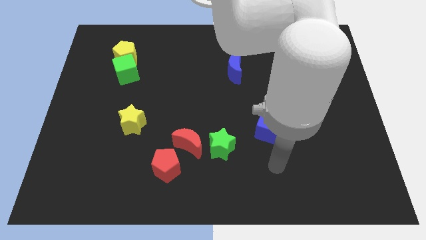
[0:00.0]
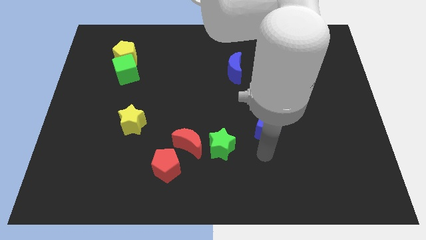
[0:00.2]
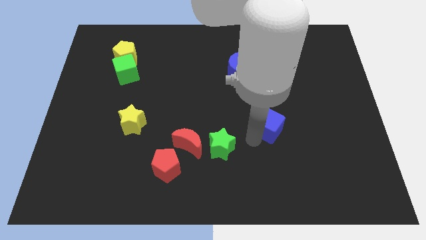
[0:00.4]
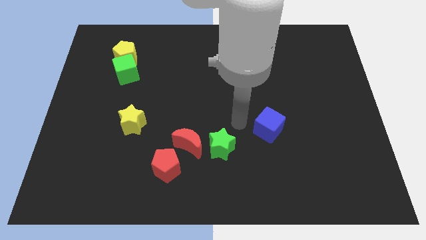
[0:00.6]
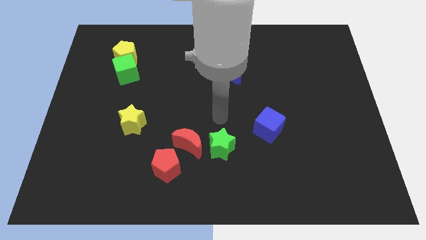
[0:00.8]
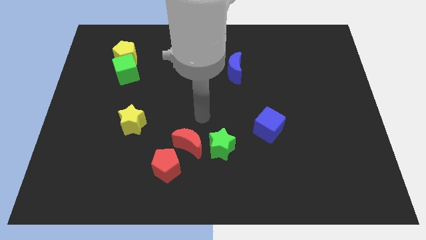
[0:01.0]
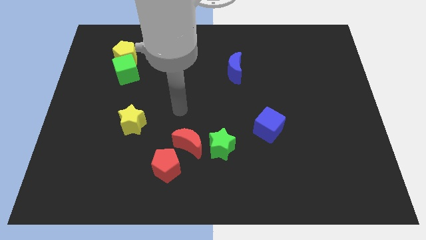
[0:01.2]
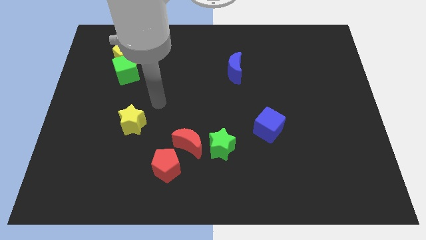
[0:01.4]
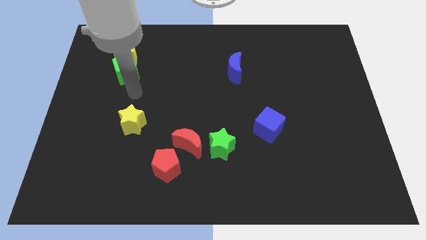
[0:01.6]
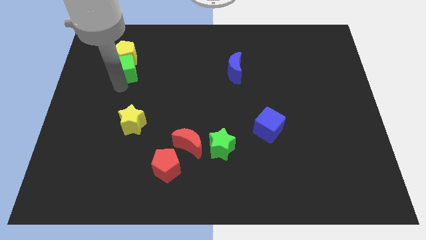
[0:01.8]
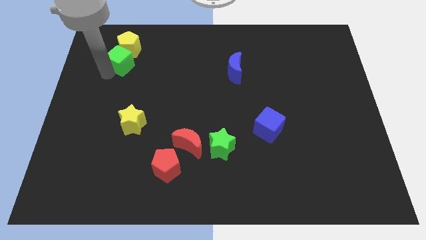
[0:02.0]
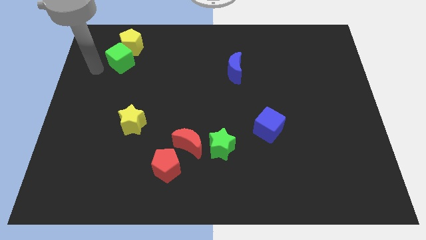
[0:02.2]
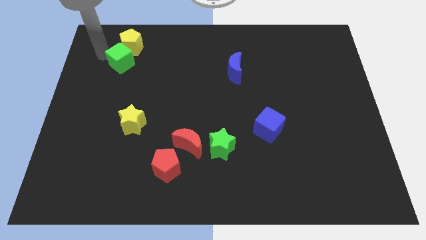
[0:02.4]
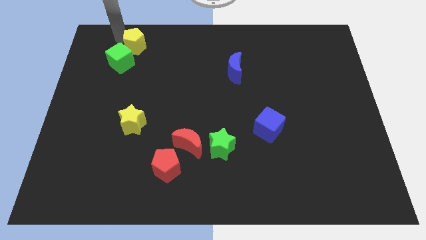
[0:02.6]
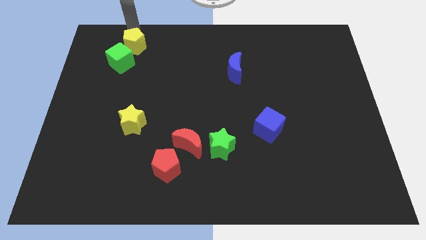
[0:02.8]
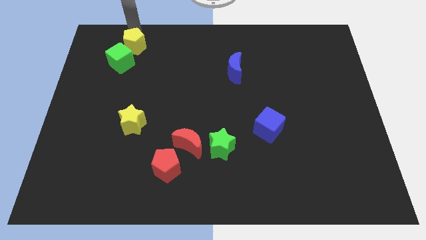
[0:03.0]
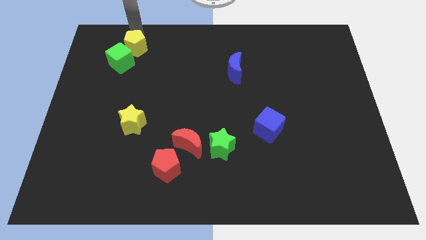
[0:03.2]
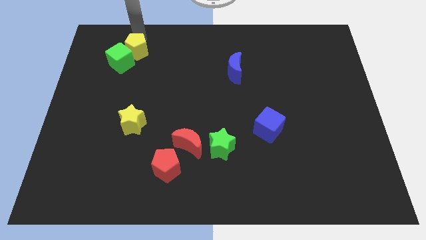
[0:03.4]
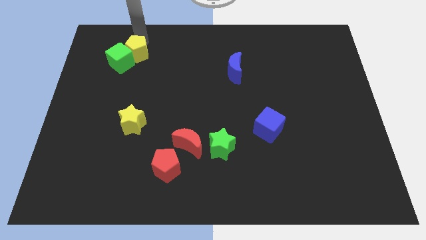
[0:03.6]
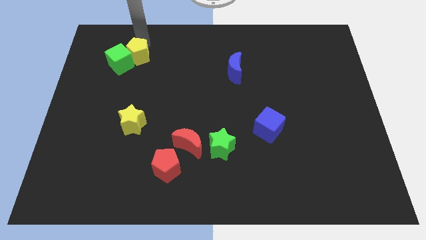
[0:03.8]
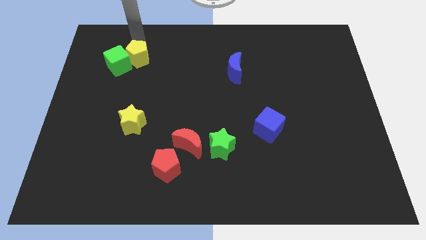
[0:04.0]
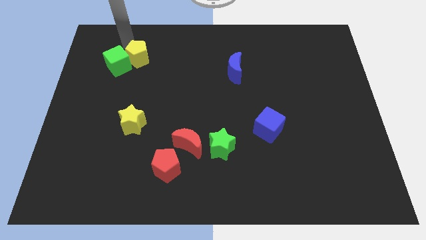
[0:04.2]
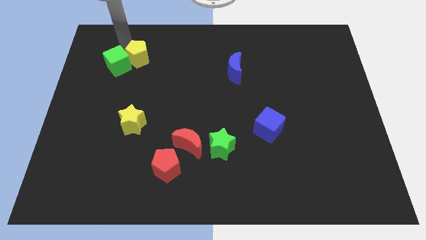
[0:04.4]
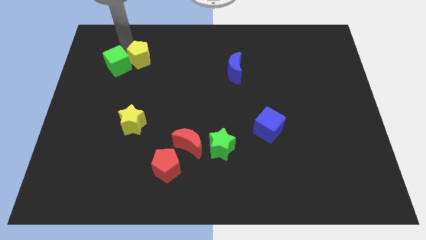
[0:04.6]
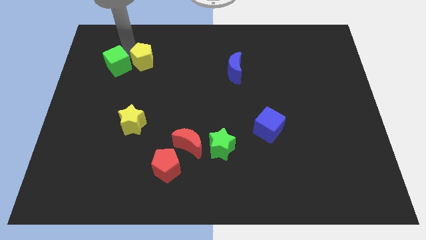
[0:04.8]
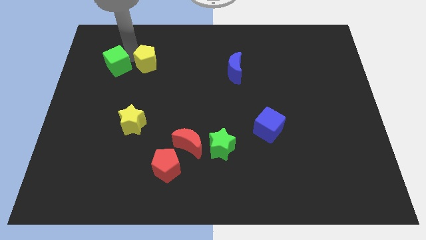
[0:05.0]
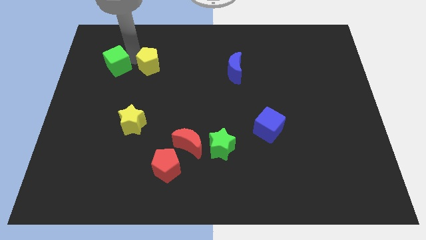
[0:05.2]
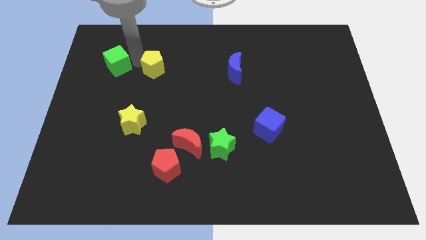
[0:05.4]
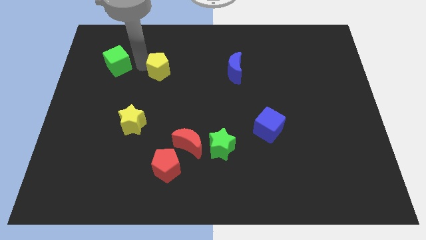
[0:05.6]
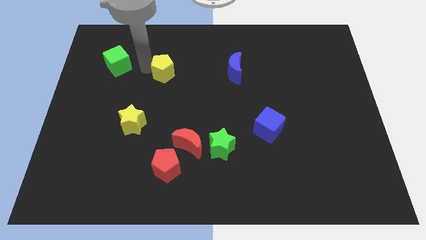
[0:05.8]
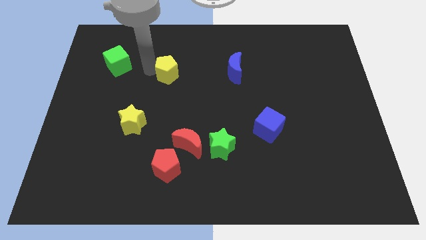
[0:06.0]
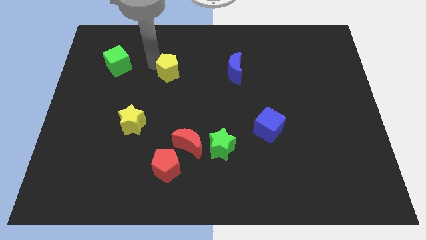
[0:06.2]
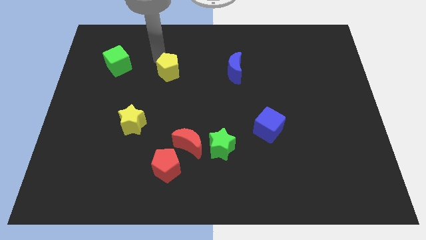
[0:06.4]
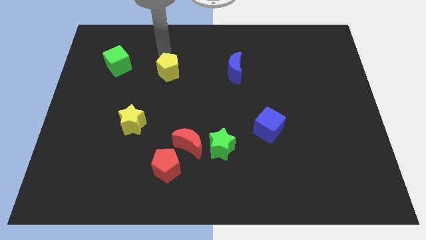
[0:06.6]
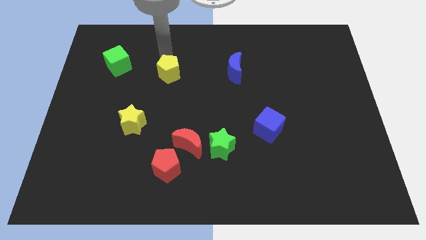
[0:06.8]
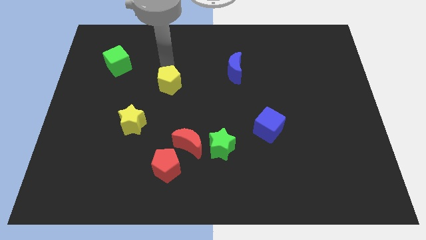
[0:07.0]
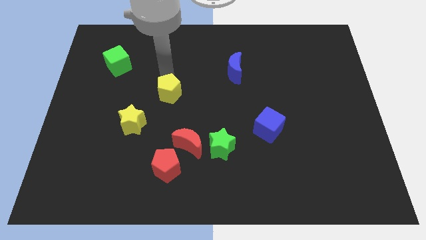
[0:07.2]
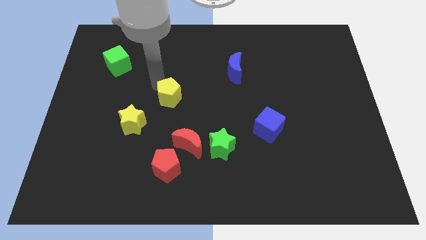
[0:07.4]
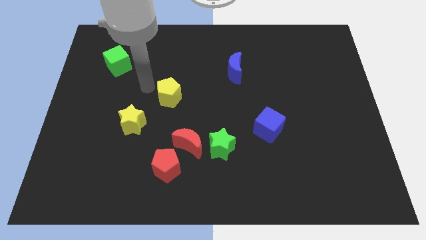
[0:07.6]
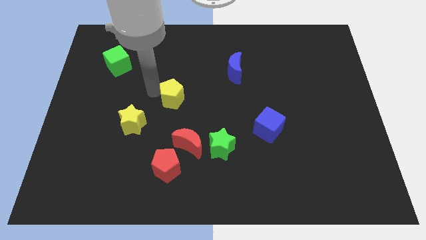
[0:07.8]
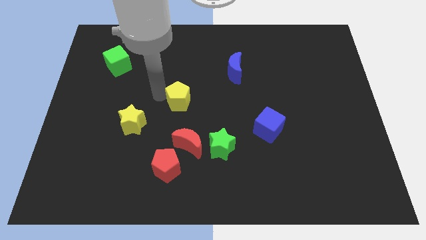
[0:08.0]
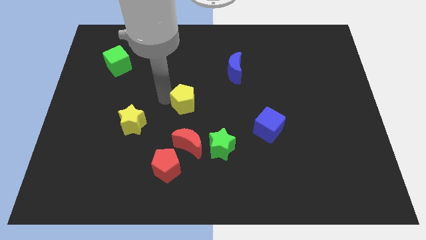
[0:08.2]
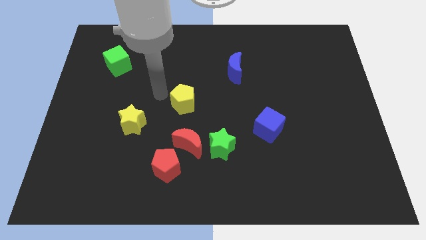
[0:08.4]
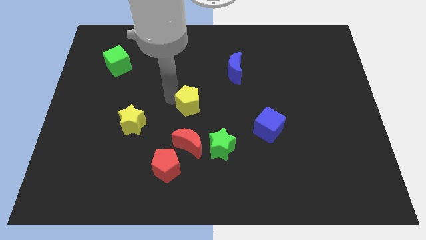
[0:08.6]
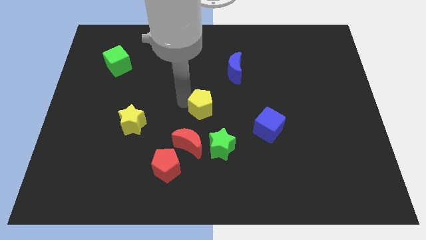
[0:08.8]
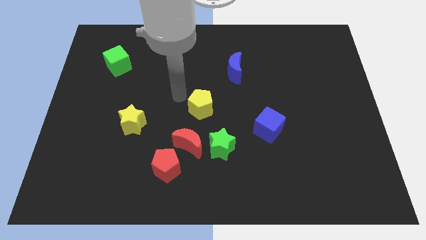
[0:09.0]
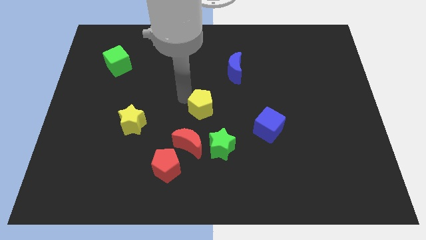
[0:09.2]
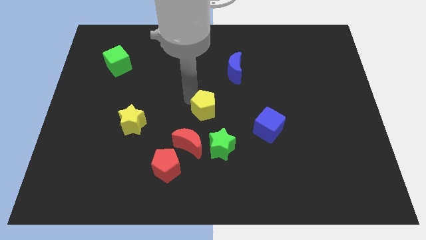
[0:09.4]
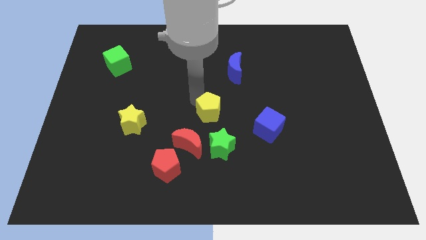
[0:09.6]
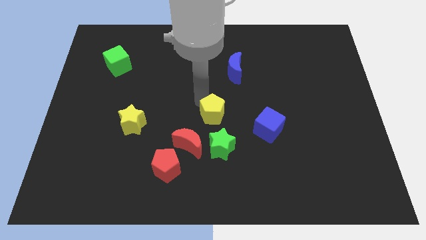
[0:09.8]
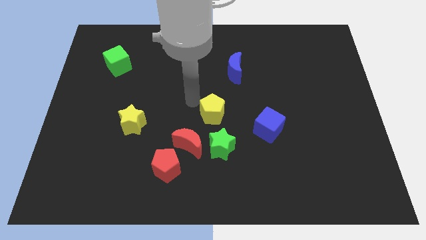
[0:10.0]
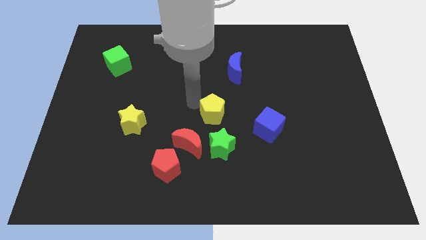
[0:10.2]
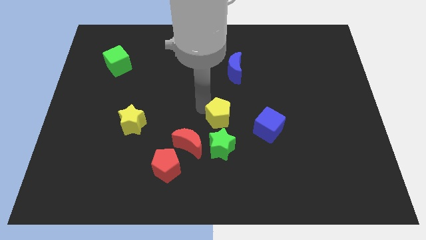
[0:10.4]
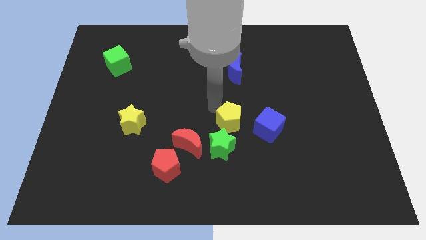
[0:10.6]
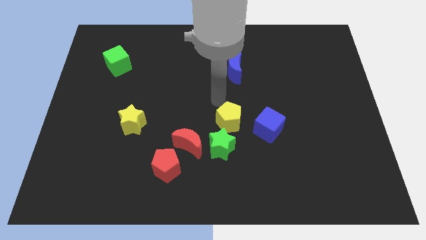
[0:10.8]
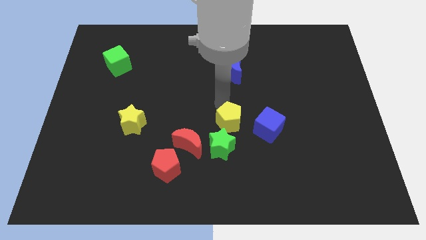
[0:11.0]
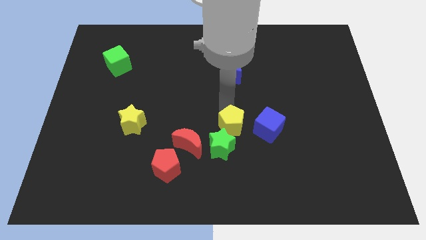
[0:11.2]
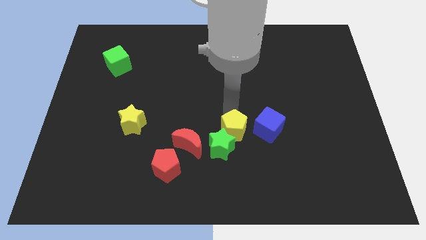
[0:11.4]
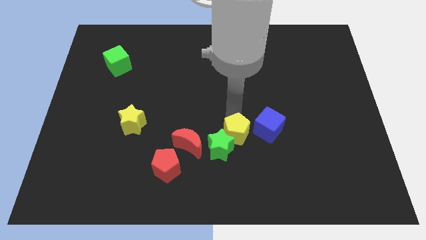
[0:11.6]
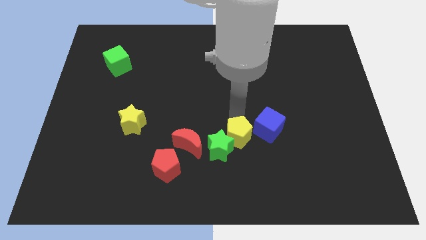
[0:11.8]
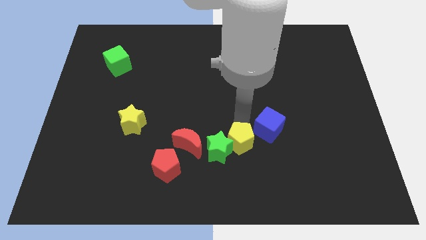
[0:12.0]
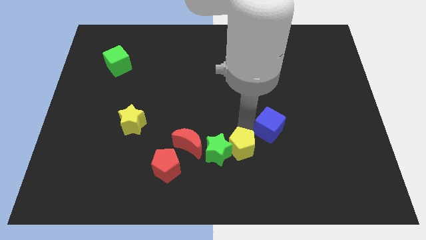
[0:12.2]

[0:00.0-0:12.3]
move the yellow pentagon diagonally down and to the right of the green star

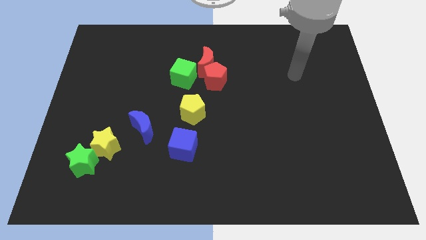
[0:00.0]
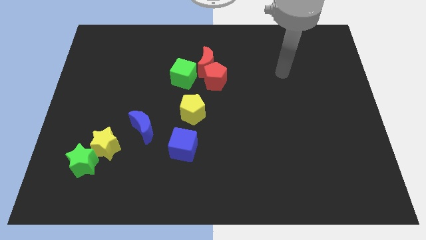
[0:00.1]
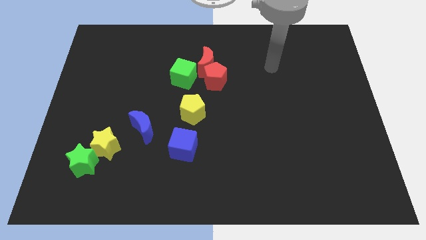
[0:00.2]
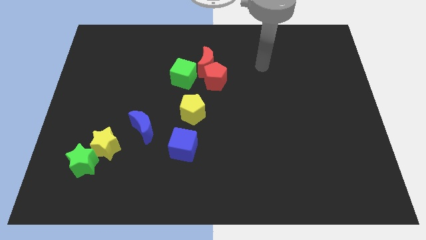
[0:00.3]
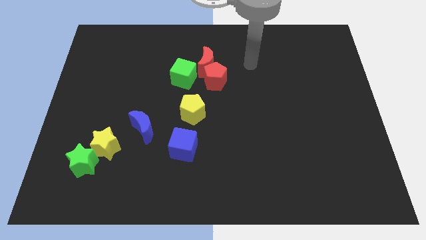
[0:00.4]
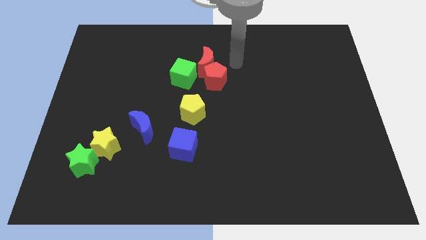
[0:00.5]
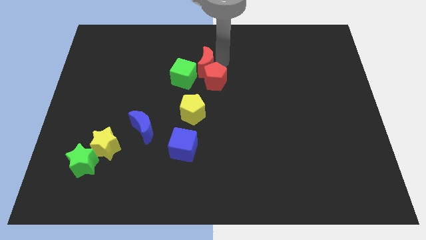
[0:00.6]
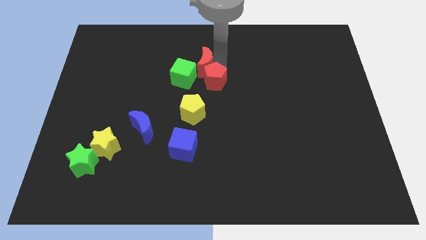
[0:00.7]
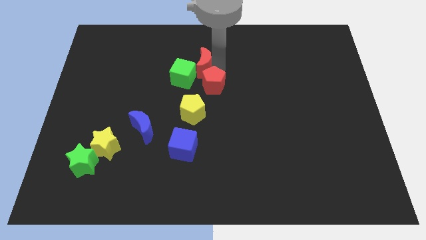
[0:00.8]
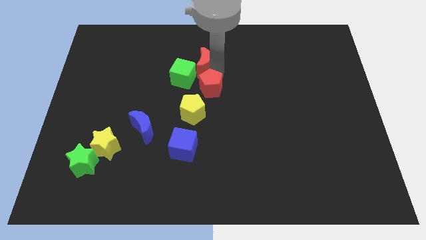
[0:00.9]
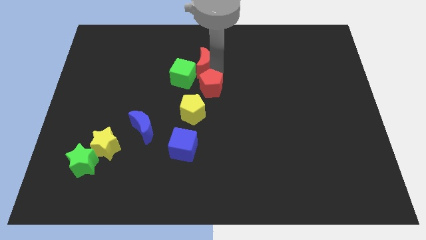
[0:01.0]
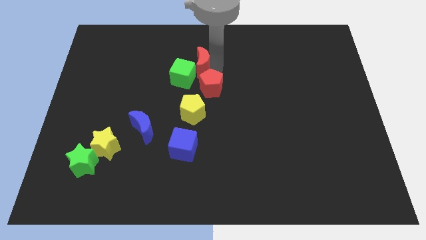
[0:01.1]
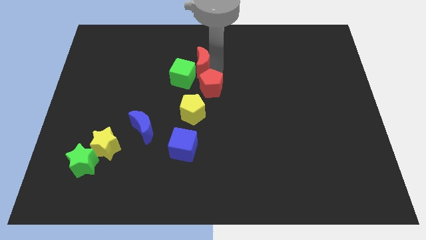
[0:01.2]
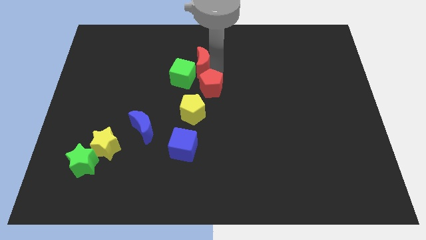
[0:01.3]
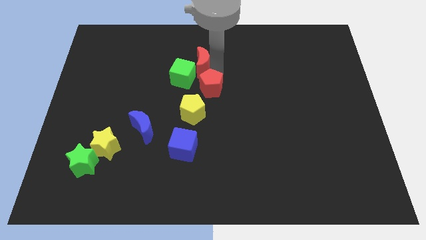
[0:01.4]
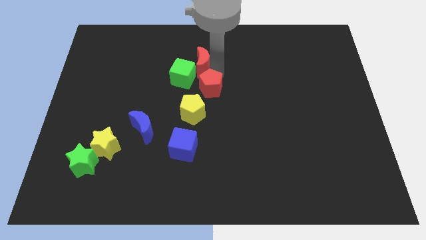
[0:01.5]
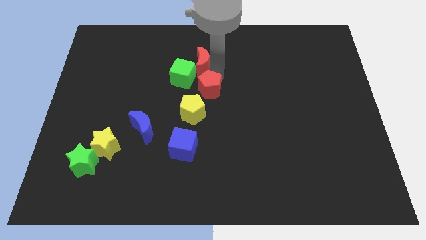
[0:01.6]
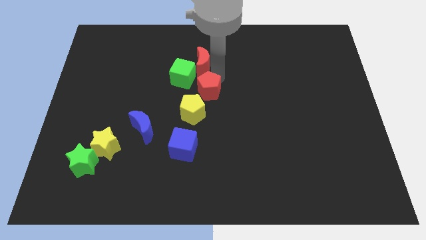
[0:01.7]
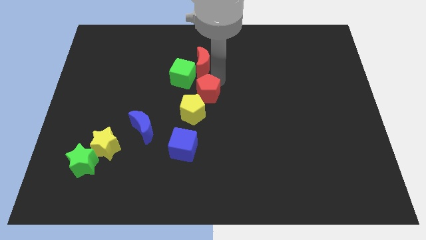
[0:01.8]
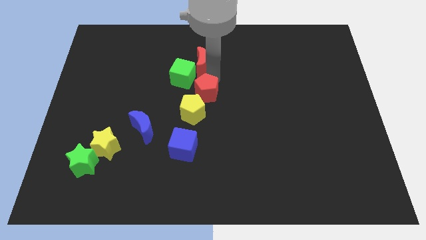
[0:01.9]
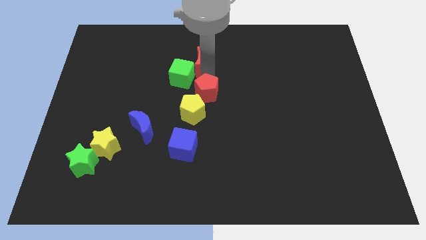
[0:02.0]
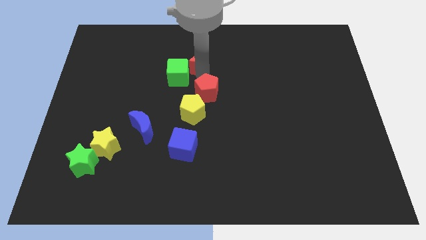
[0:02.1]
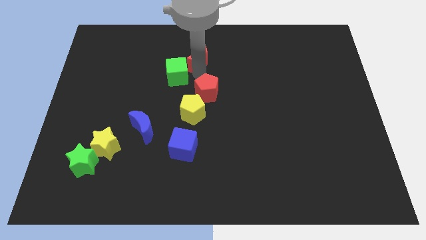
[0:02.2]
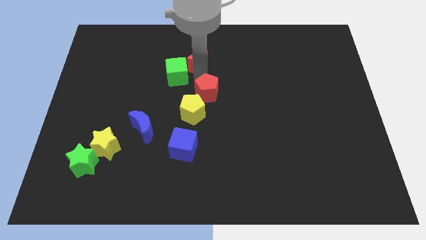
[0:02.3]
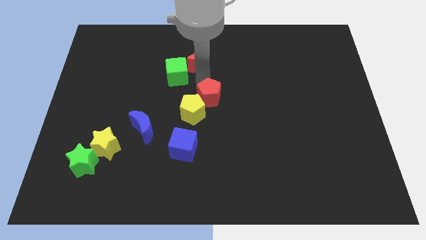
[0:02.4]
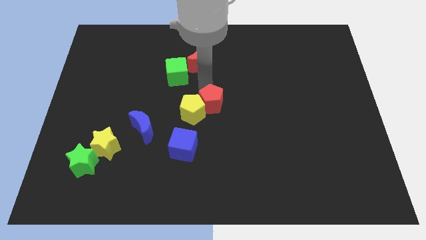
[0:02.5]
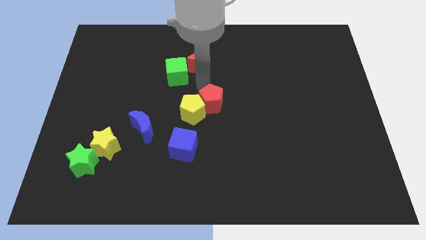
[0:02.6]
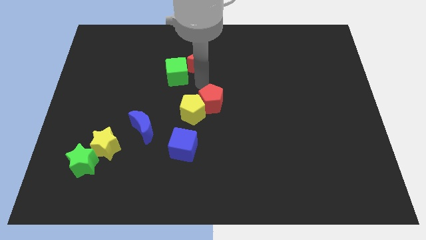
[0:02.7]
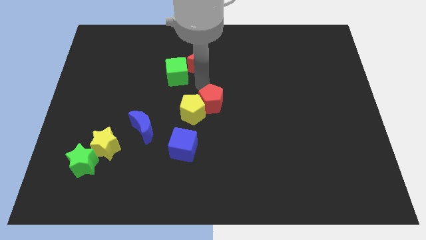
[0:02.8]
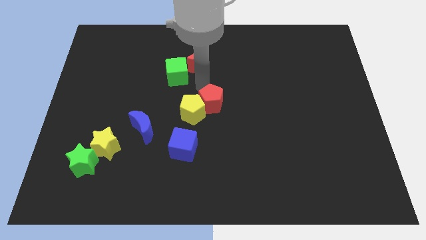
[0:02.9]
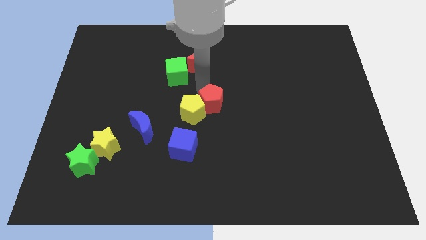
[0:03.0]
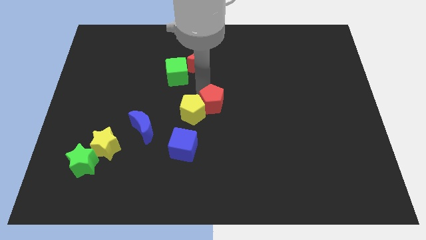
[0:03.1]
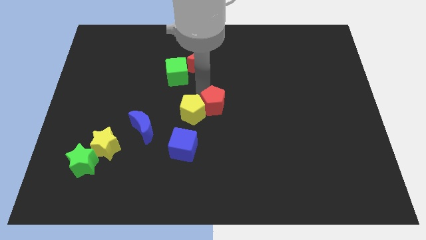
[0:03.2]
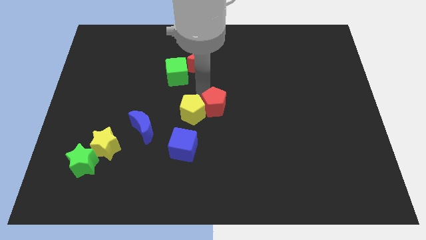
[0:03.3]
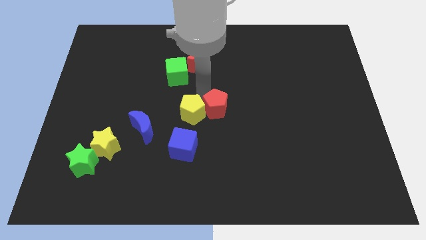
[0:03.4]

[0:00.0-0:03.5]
push the red pentagon diagonally down and to the right of the yellow pentagon
